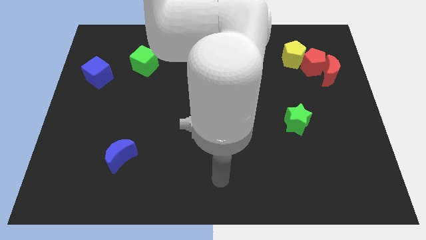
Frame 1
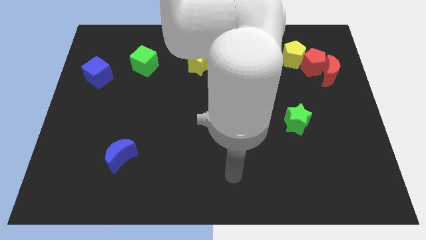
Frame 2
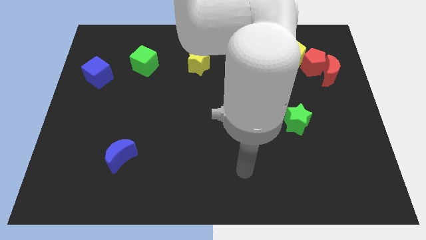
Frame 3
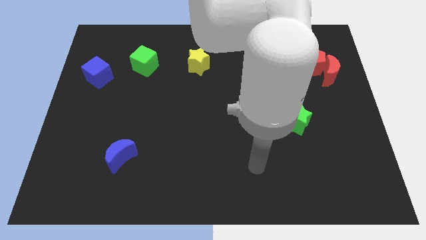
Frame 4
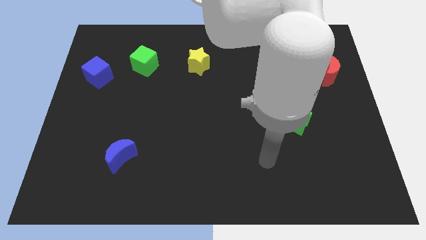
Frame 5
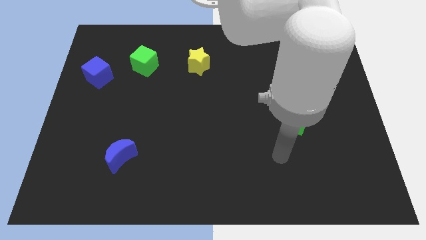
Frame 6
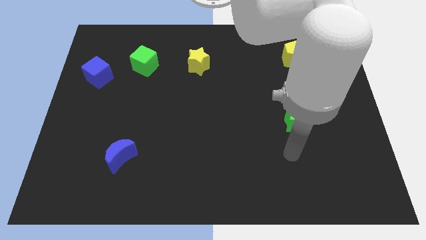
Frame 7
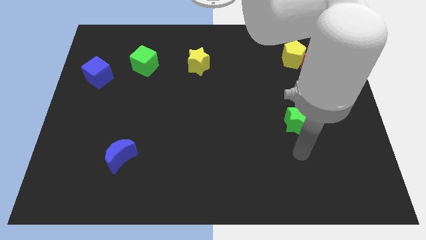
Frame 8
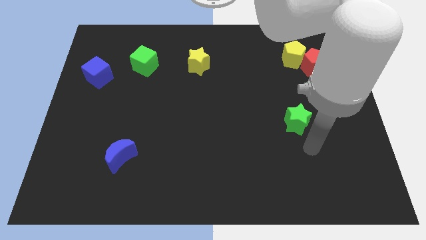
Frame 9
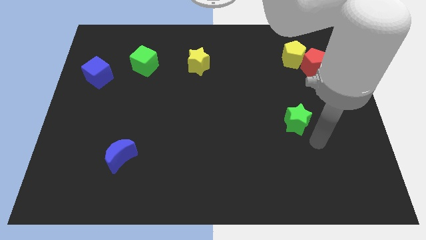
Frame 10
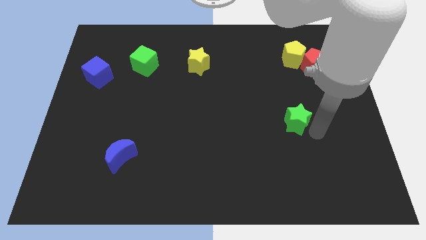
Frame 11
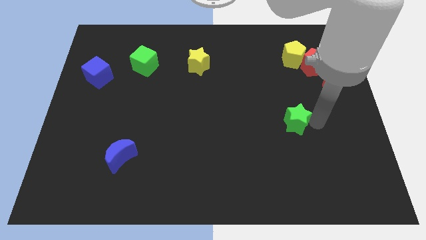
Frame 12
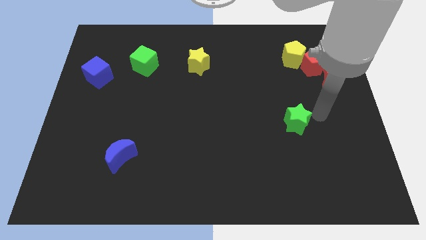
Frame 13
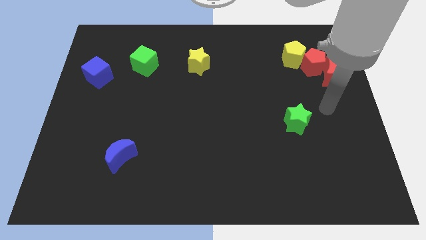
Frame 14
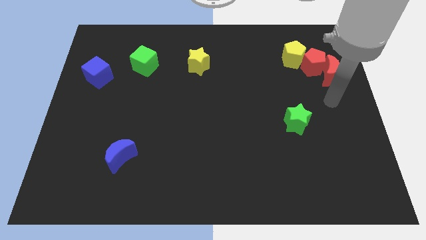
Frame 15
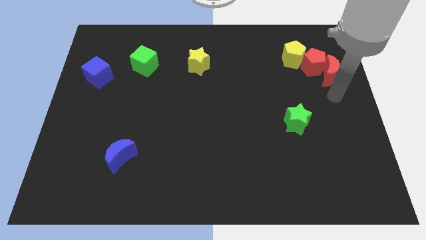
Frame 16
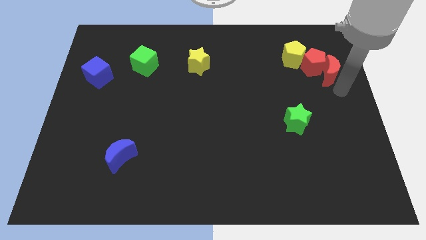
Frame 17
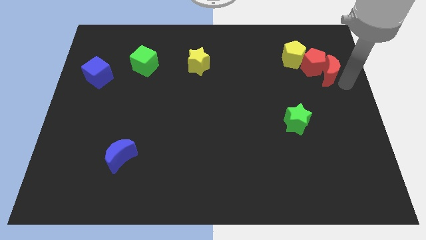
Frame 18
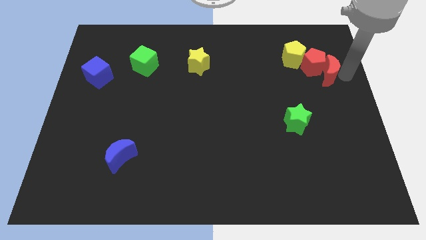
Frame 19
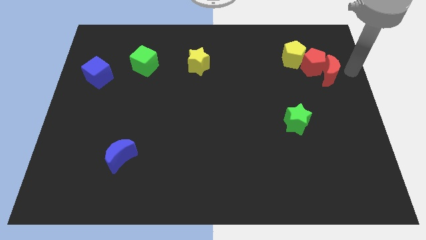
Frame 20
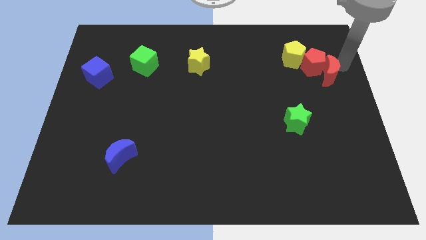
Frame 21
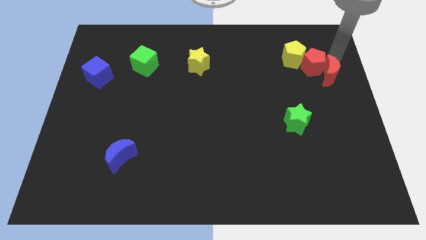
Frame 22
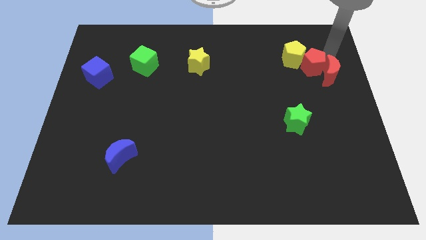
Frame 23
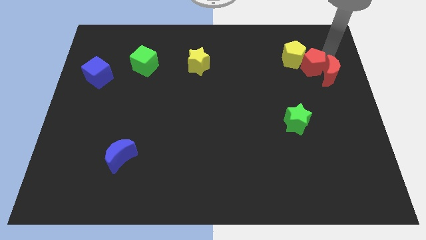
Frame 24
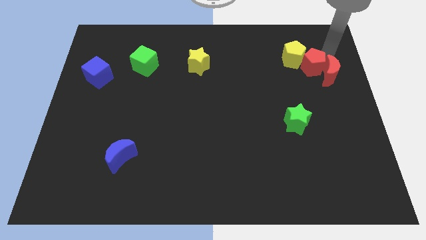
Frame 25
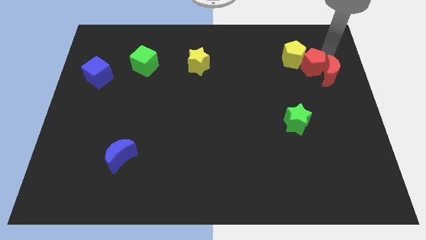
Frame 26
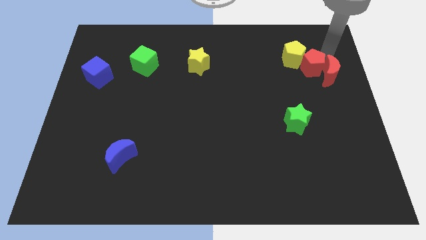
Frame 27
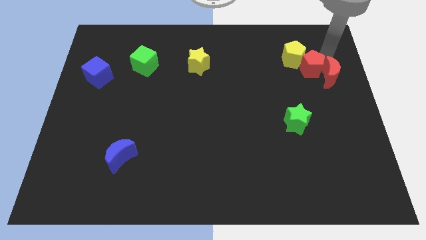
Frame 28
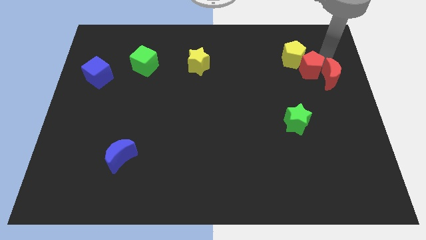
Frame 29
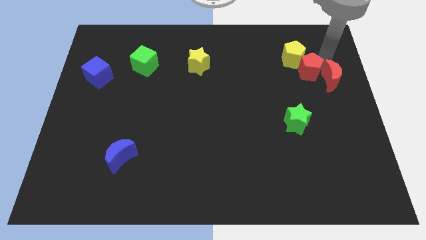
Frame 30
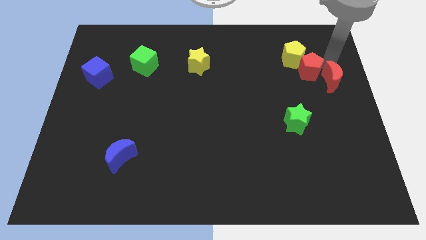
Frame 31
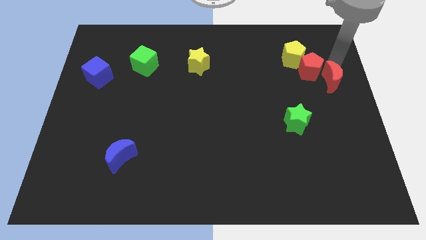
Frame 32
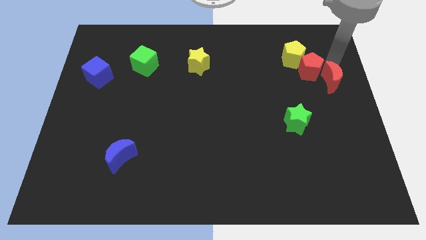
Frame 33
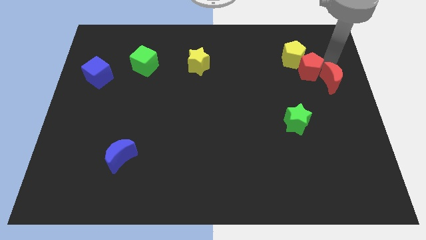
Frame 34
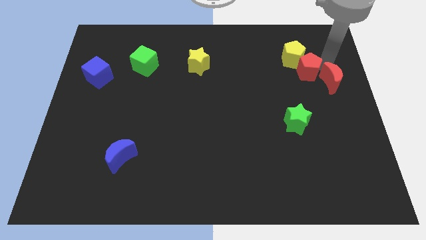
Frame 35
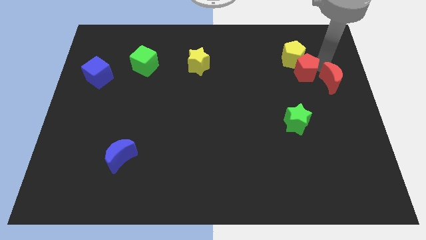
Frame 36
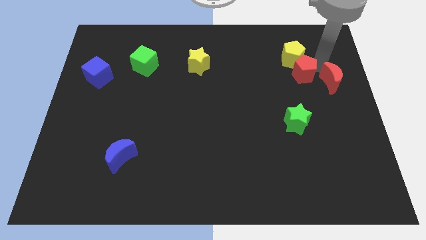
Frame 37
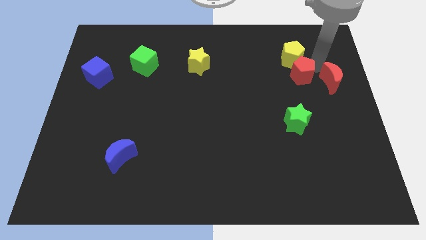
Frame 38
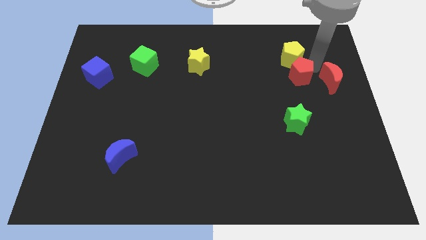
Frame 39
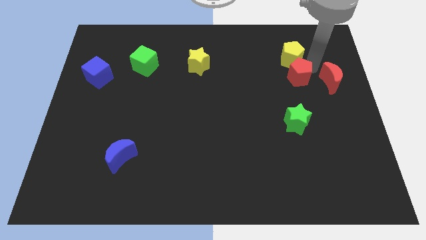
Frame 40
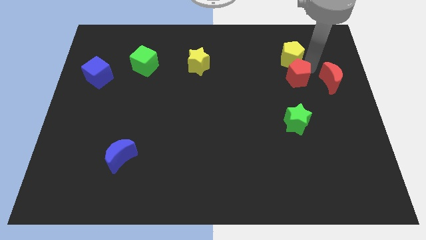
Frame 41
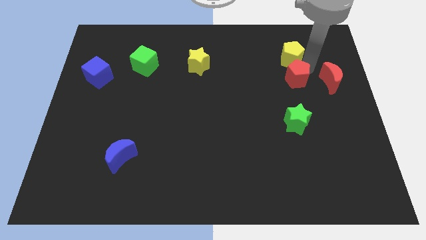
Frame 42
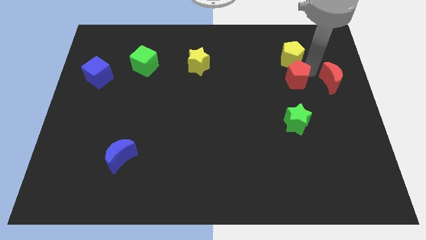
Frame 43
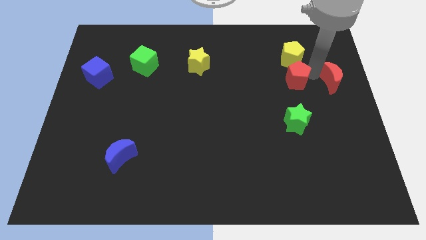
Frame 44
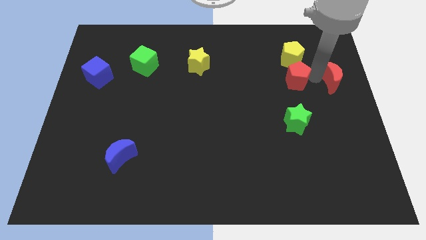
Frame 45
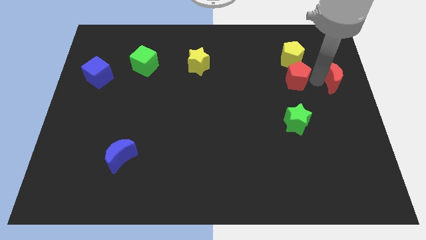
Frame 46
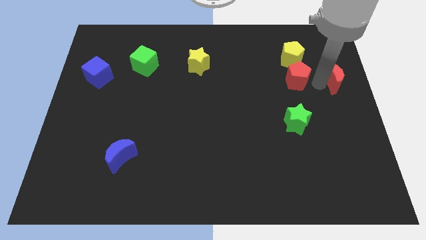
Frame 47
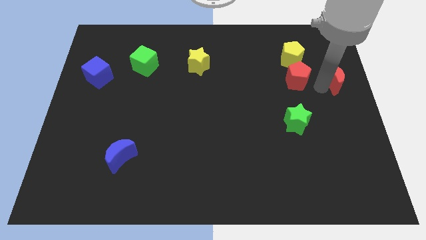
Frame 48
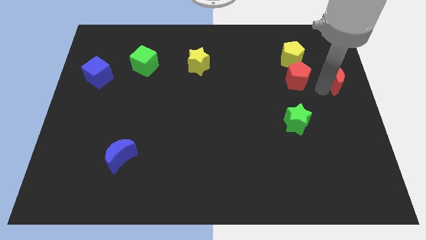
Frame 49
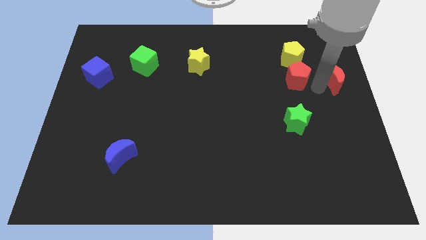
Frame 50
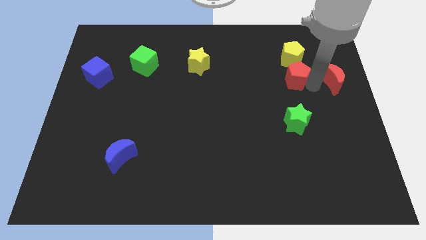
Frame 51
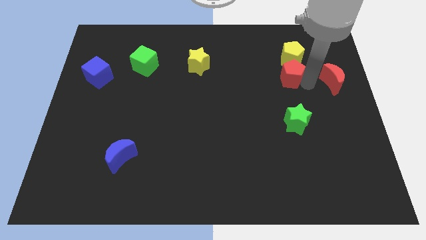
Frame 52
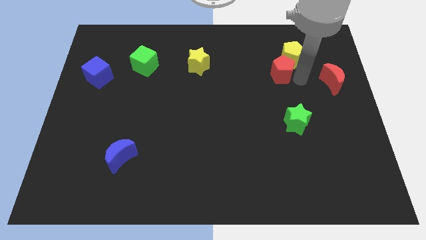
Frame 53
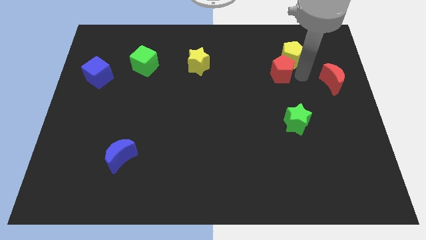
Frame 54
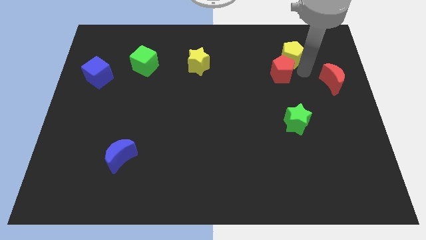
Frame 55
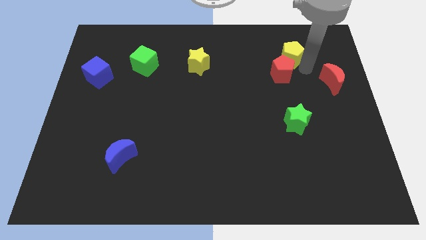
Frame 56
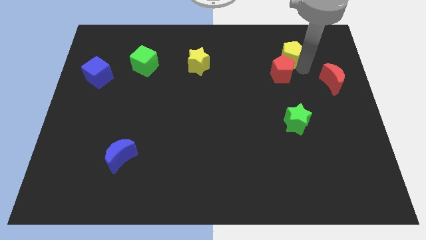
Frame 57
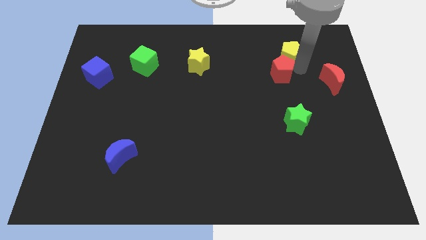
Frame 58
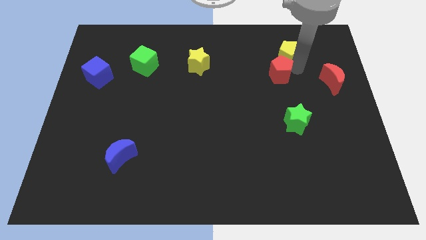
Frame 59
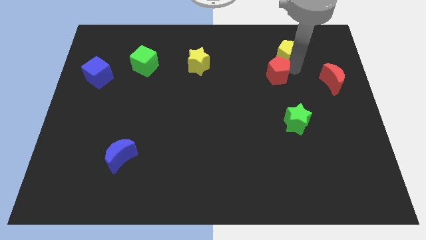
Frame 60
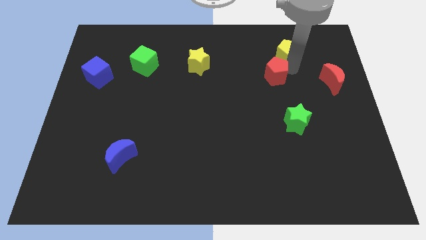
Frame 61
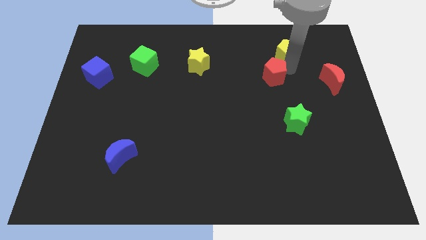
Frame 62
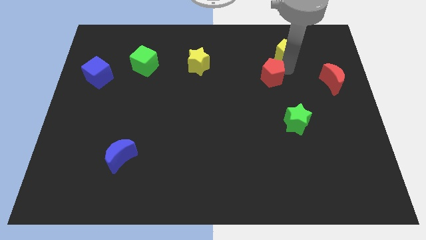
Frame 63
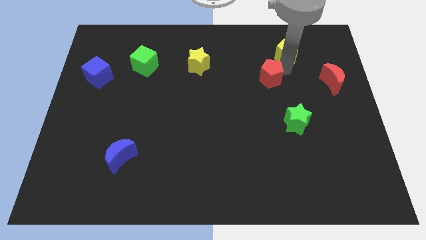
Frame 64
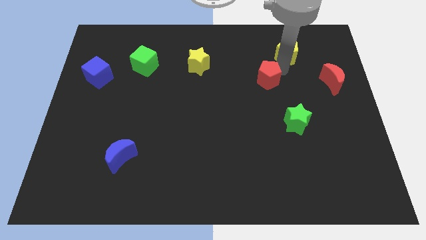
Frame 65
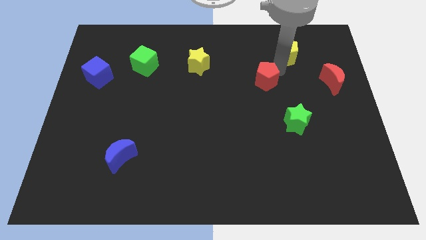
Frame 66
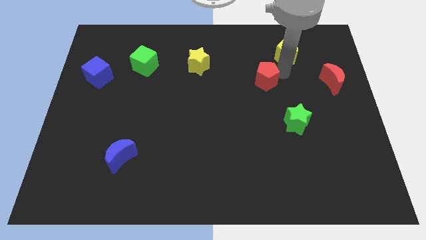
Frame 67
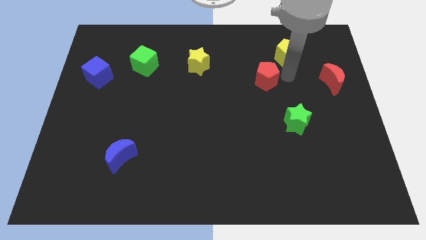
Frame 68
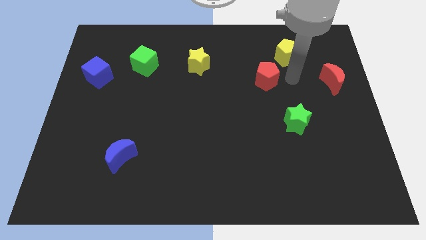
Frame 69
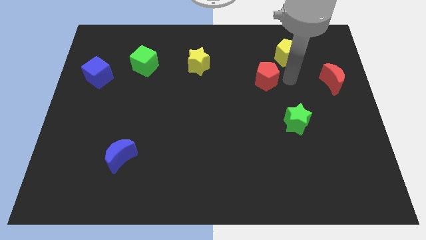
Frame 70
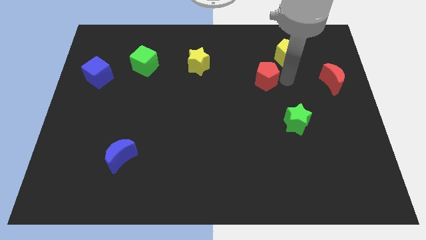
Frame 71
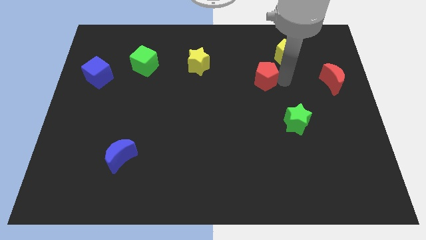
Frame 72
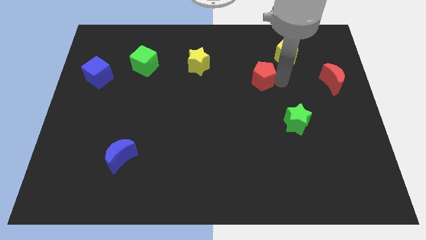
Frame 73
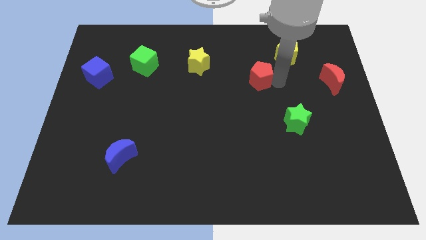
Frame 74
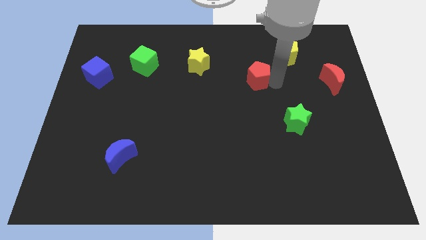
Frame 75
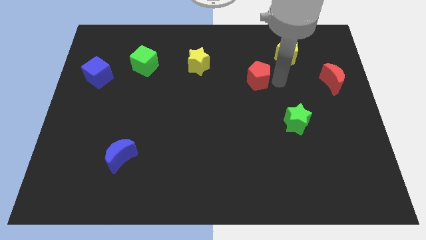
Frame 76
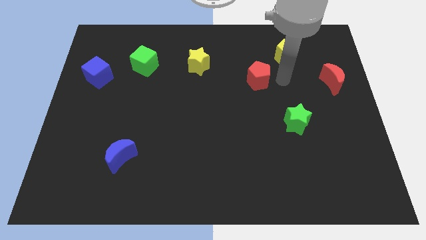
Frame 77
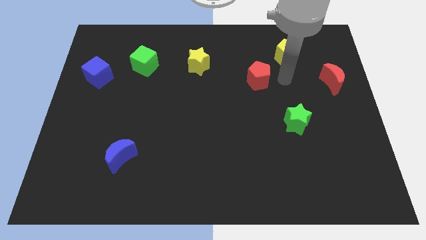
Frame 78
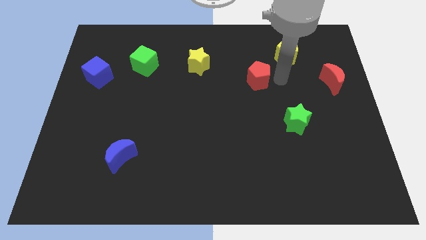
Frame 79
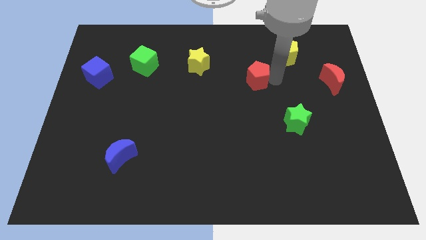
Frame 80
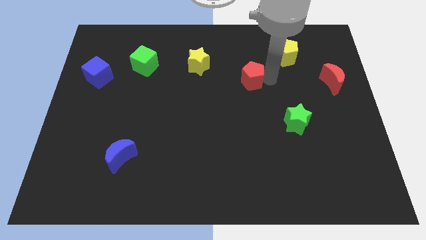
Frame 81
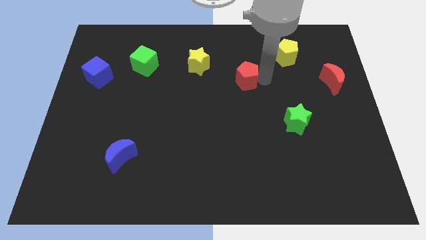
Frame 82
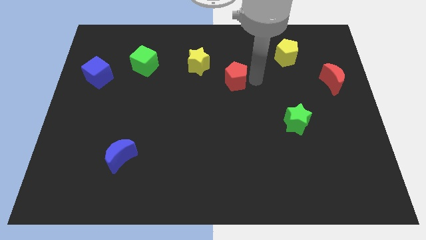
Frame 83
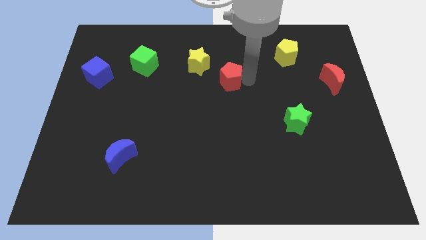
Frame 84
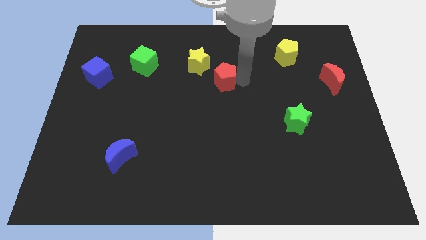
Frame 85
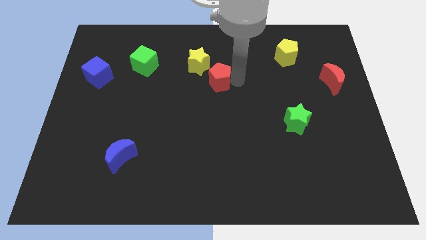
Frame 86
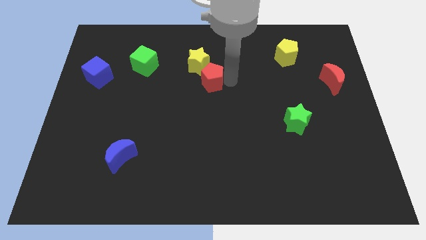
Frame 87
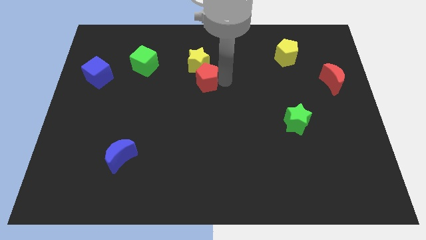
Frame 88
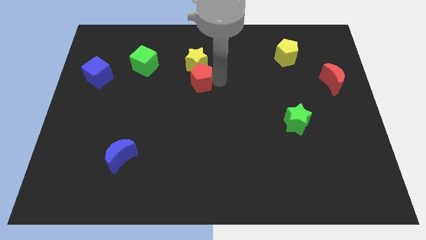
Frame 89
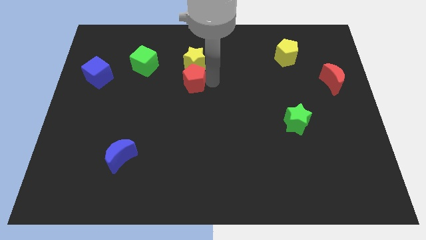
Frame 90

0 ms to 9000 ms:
put the red pentagon to the bottom left of the yellow star
